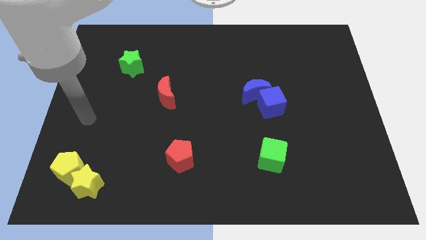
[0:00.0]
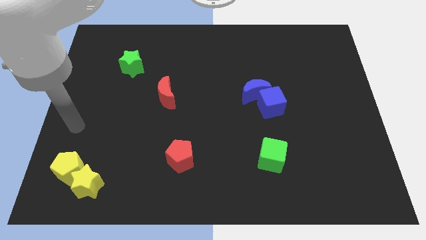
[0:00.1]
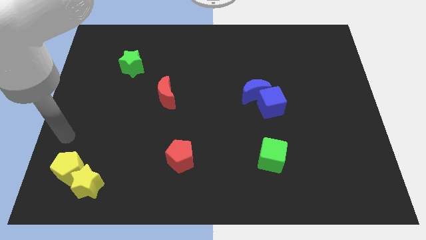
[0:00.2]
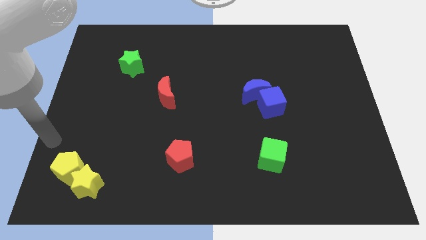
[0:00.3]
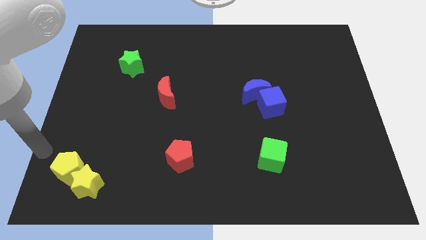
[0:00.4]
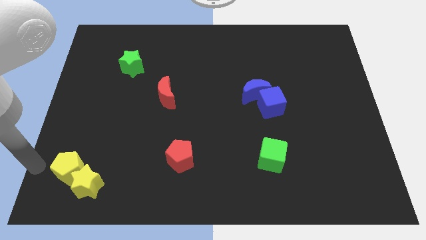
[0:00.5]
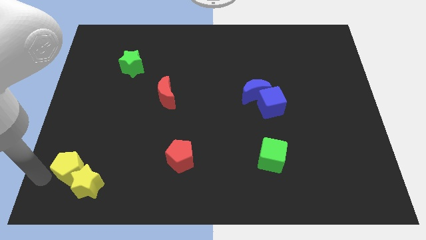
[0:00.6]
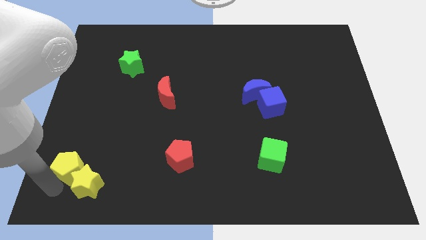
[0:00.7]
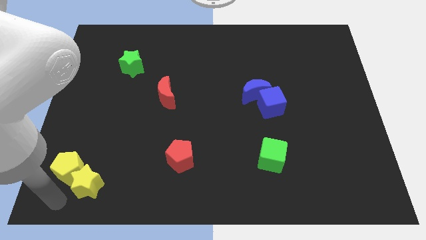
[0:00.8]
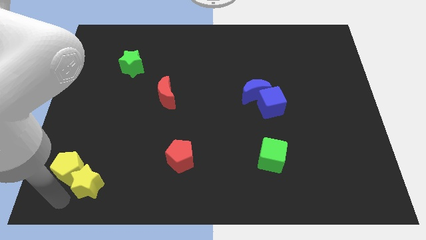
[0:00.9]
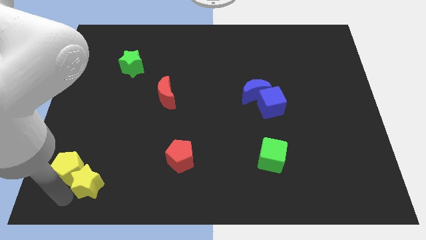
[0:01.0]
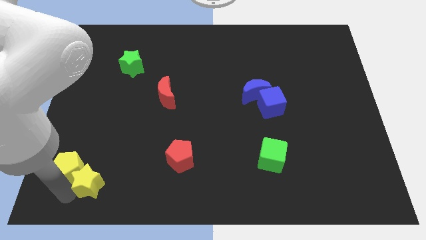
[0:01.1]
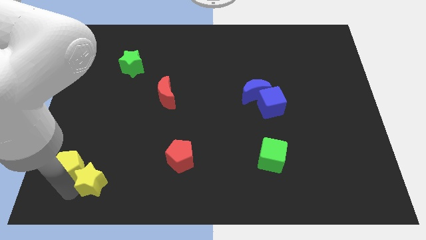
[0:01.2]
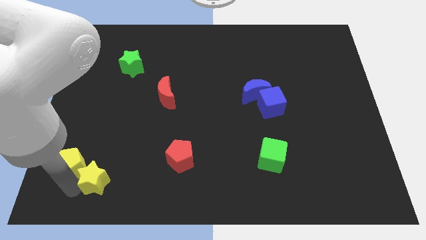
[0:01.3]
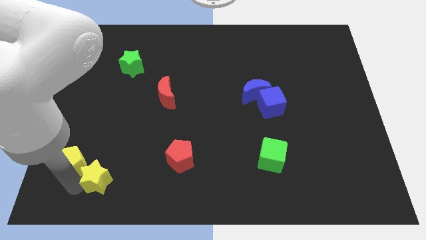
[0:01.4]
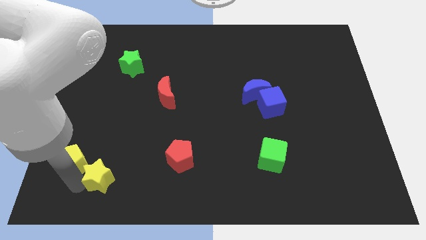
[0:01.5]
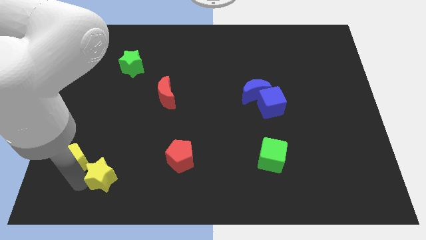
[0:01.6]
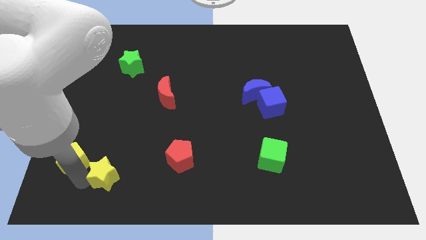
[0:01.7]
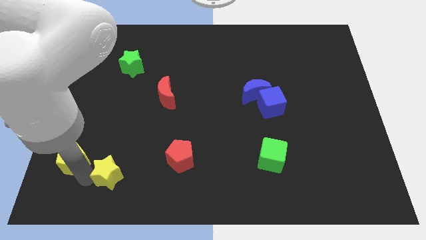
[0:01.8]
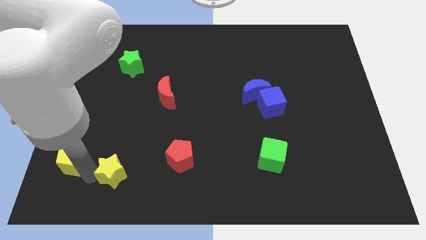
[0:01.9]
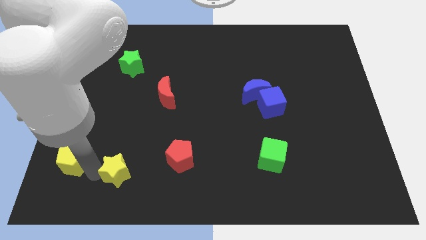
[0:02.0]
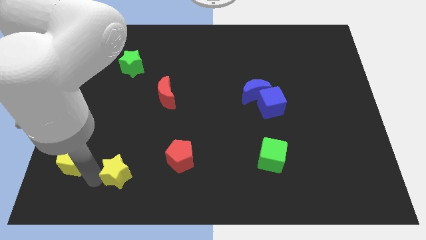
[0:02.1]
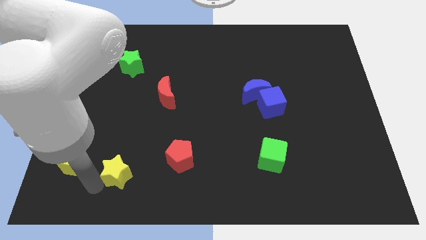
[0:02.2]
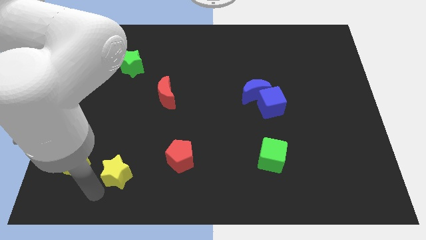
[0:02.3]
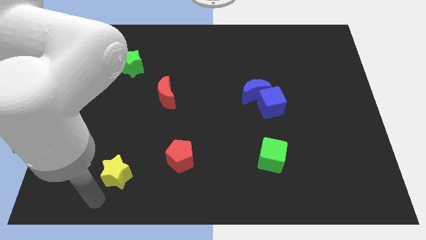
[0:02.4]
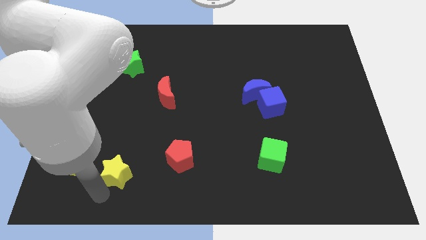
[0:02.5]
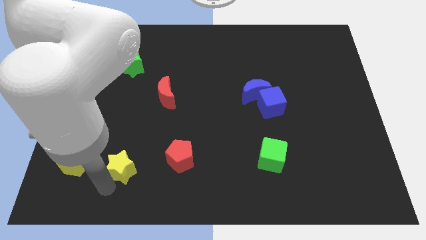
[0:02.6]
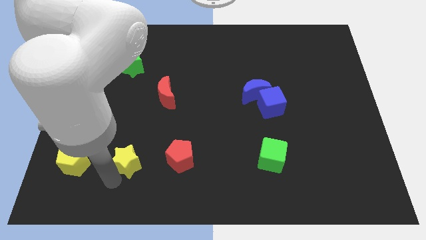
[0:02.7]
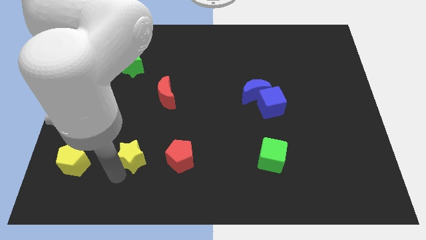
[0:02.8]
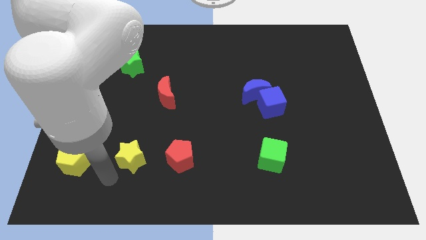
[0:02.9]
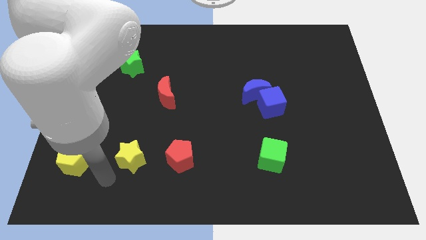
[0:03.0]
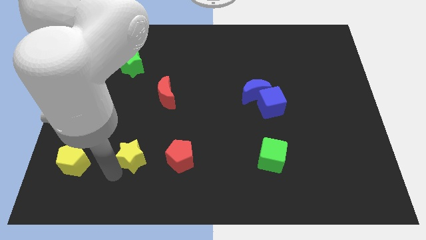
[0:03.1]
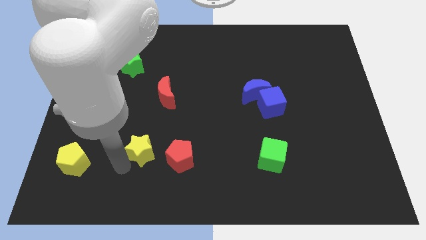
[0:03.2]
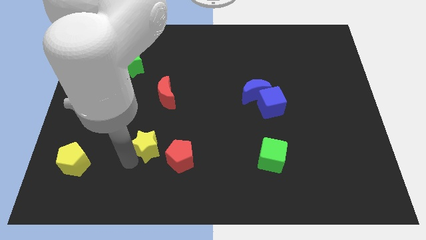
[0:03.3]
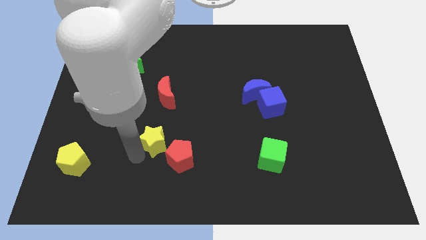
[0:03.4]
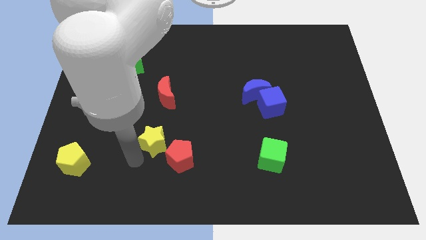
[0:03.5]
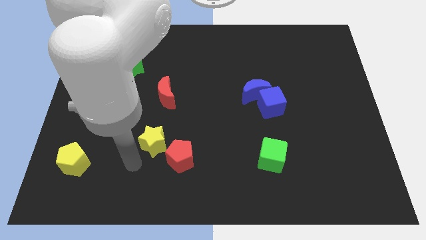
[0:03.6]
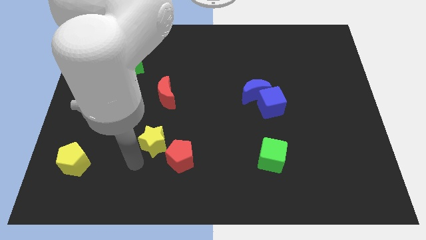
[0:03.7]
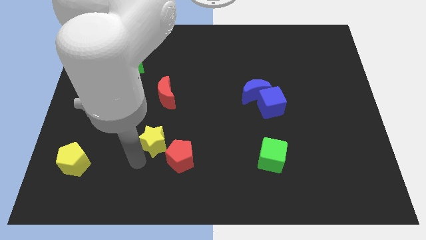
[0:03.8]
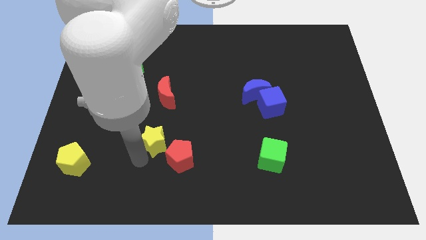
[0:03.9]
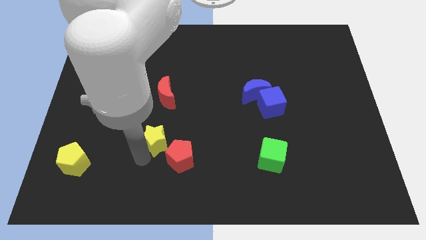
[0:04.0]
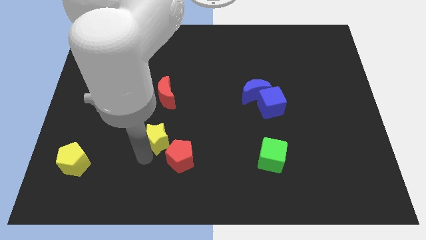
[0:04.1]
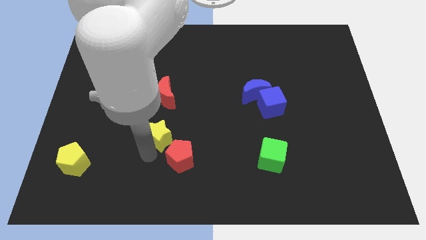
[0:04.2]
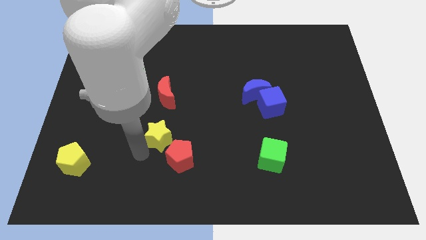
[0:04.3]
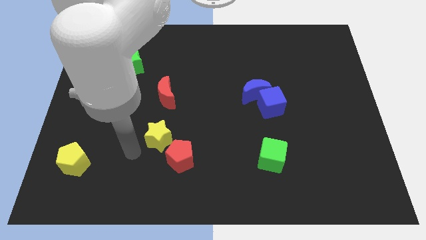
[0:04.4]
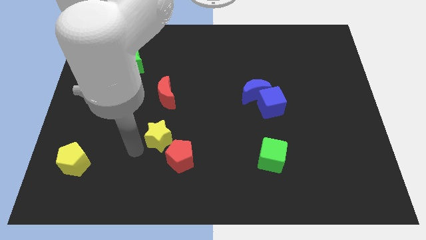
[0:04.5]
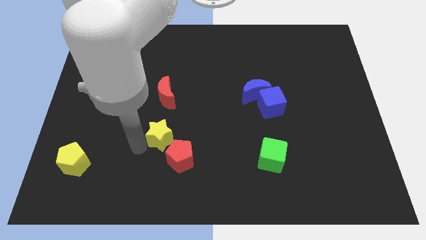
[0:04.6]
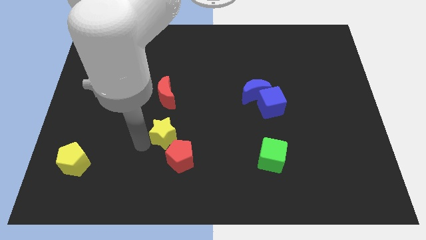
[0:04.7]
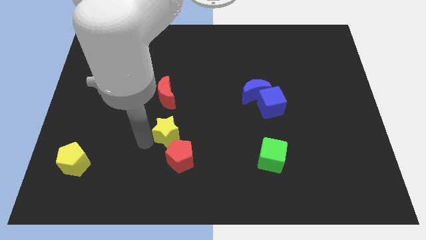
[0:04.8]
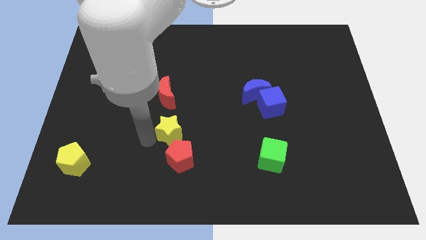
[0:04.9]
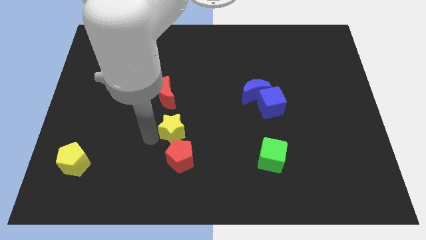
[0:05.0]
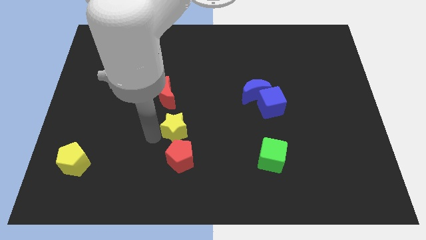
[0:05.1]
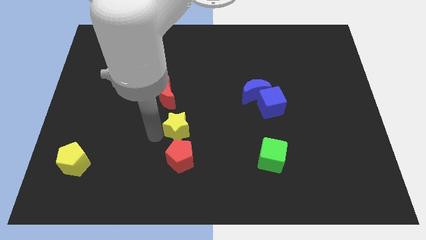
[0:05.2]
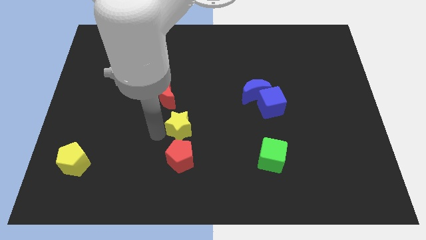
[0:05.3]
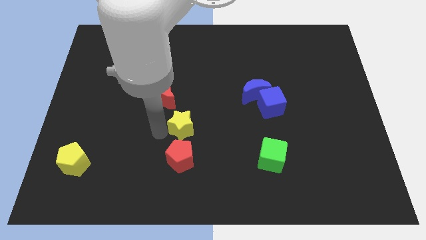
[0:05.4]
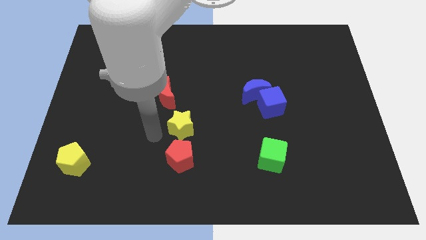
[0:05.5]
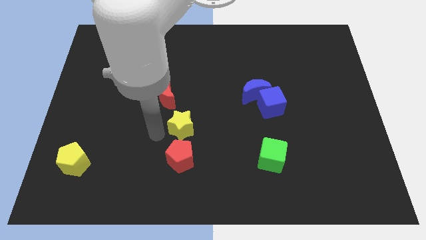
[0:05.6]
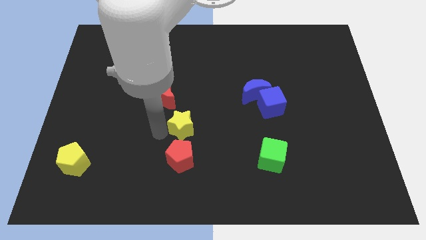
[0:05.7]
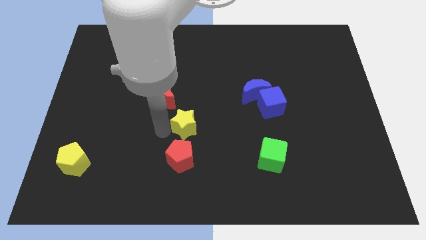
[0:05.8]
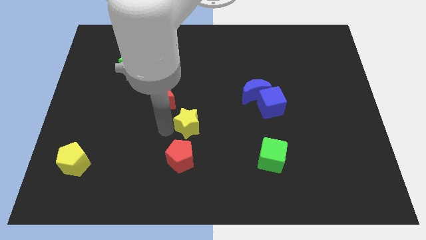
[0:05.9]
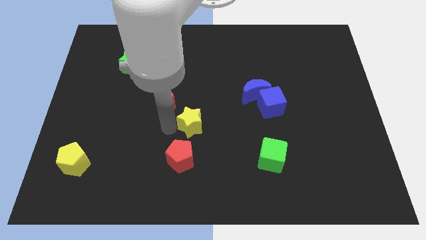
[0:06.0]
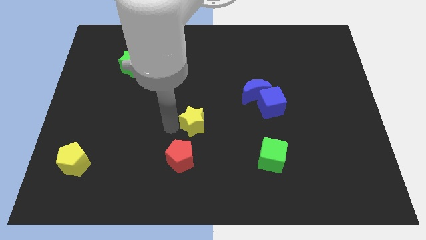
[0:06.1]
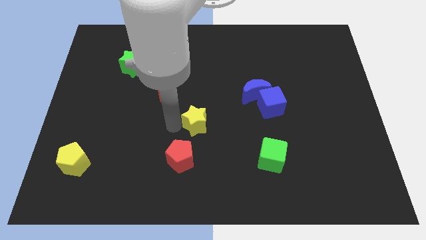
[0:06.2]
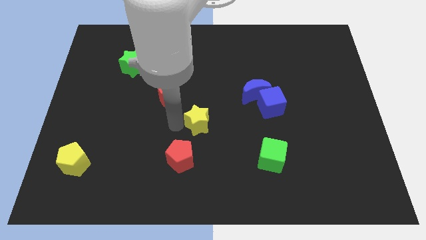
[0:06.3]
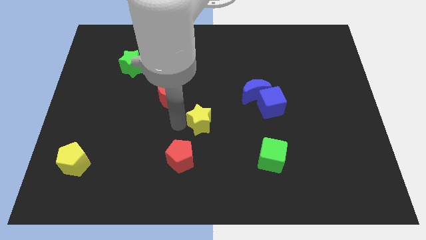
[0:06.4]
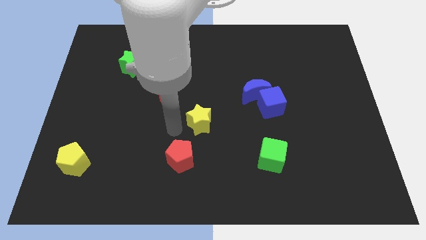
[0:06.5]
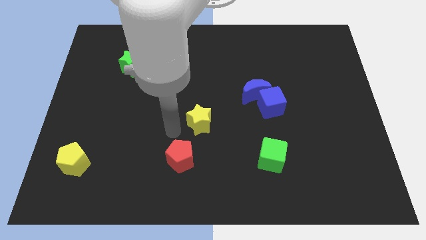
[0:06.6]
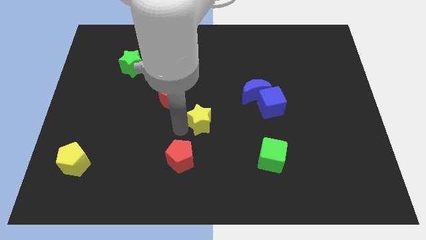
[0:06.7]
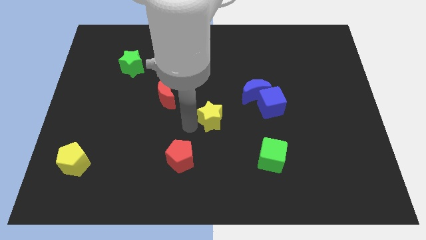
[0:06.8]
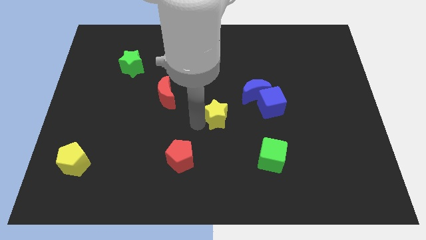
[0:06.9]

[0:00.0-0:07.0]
put the yellow star to the bottom left side of the blue moon
